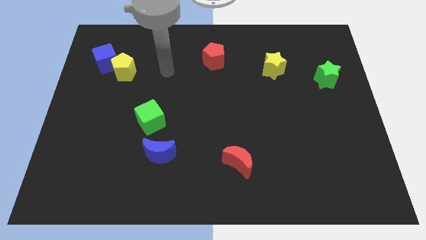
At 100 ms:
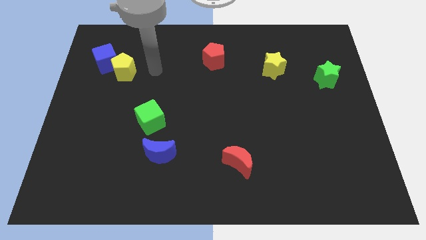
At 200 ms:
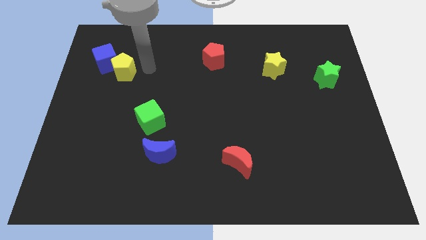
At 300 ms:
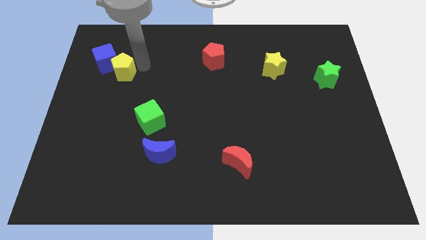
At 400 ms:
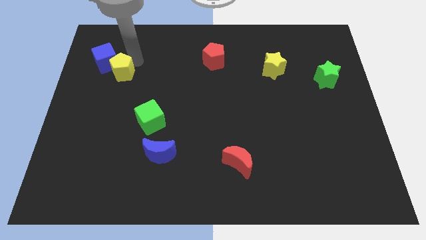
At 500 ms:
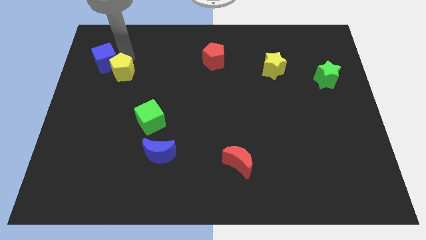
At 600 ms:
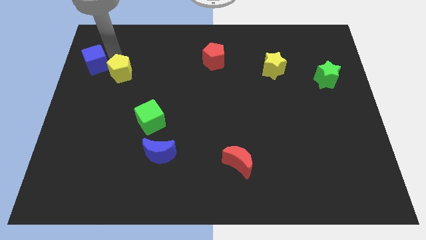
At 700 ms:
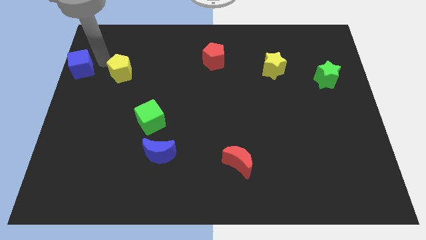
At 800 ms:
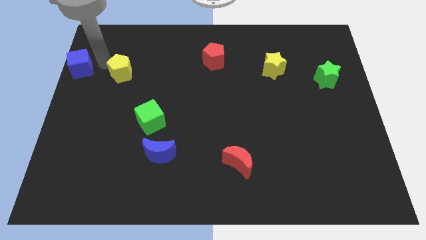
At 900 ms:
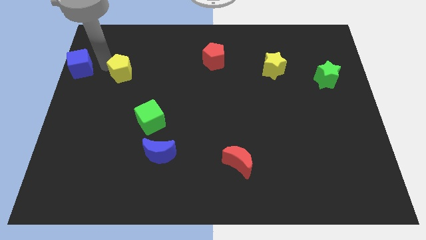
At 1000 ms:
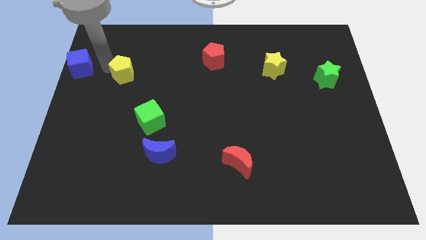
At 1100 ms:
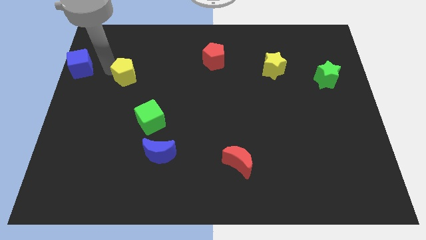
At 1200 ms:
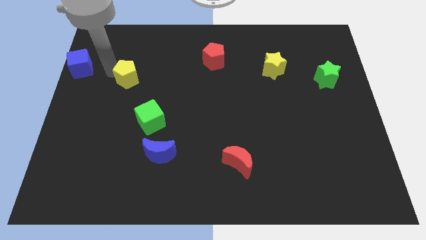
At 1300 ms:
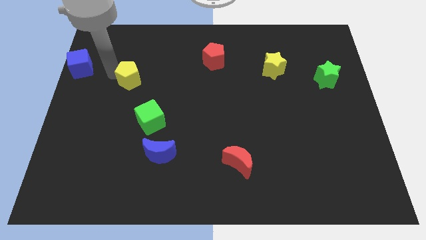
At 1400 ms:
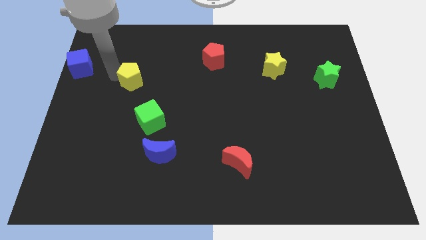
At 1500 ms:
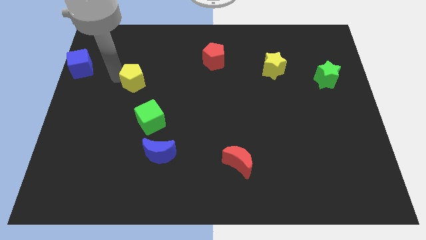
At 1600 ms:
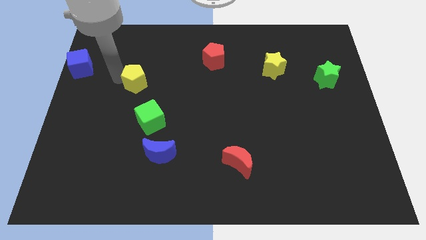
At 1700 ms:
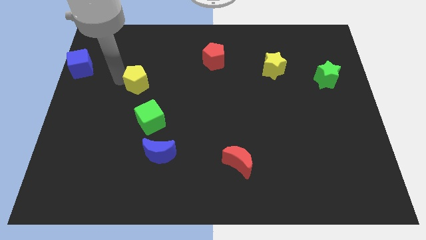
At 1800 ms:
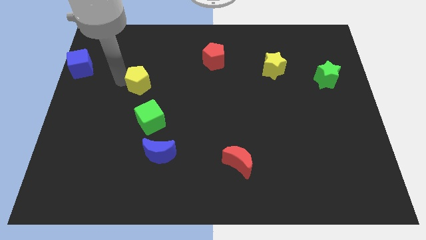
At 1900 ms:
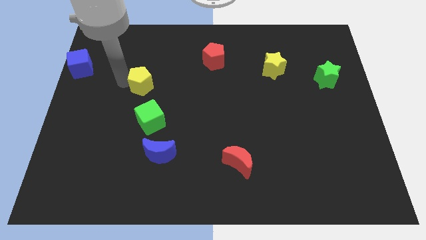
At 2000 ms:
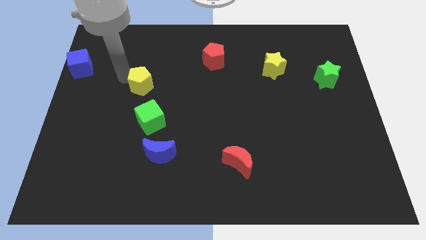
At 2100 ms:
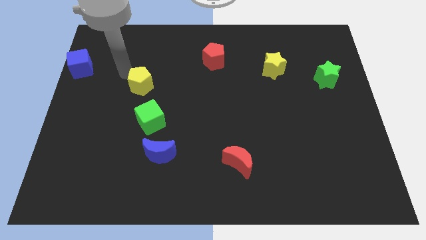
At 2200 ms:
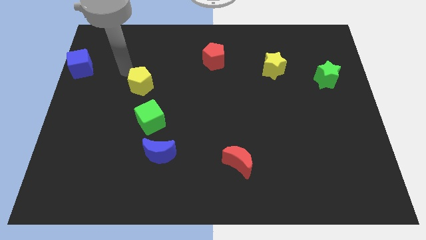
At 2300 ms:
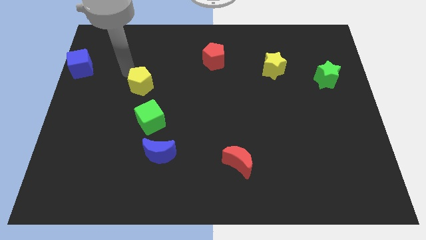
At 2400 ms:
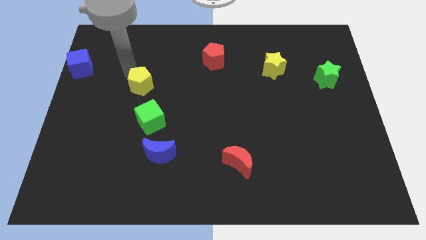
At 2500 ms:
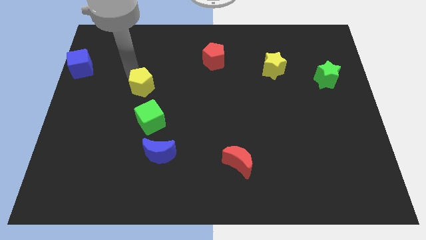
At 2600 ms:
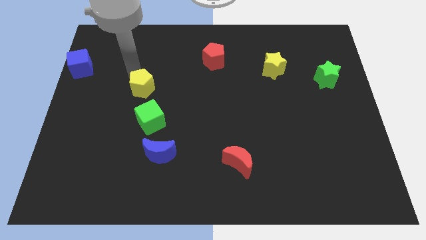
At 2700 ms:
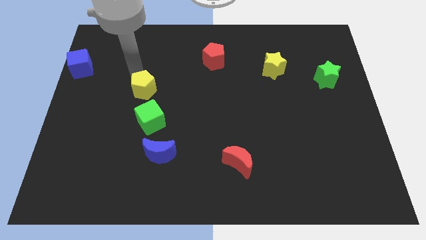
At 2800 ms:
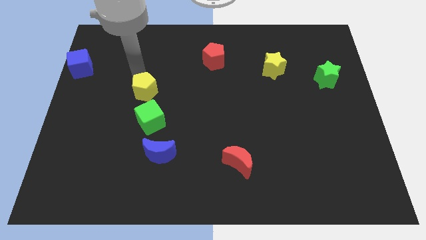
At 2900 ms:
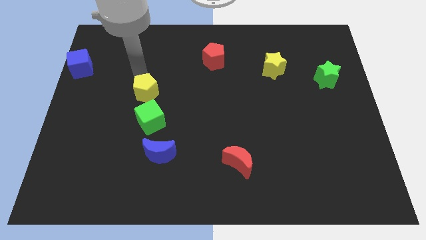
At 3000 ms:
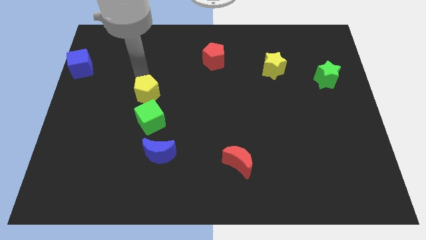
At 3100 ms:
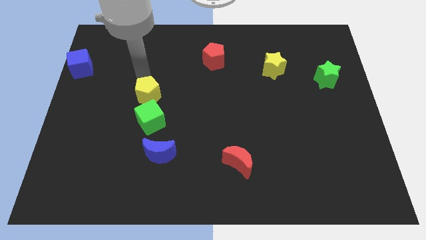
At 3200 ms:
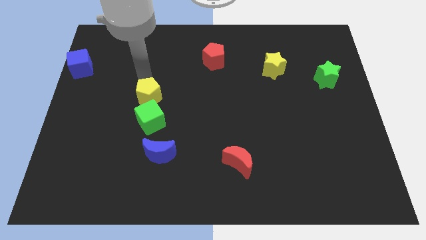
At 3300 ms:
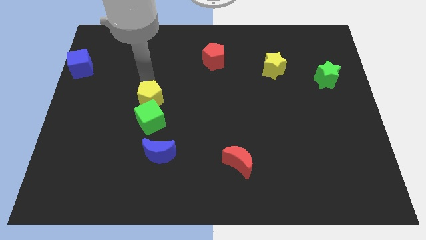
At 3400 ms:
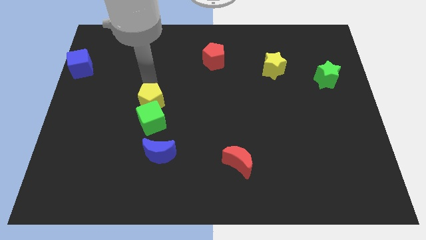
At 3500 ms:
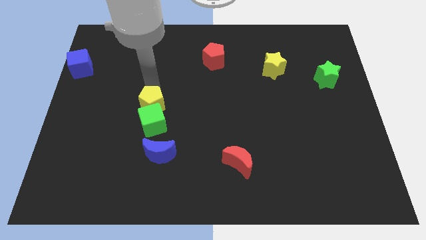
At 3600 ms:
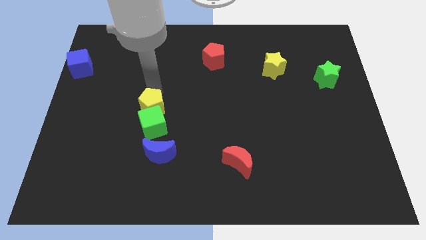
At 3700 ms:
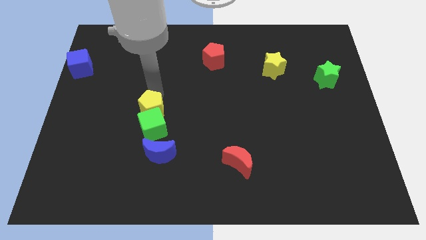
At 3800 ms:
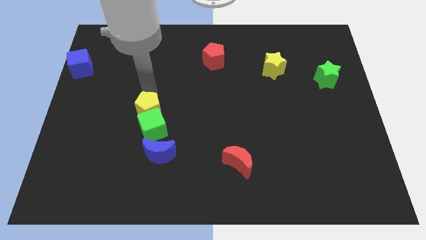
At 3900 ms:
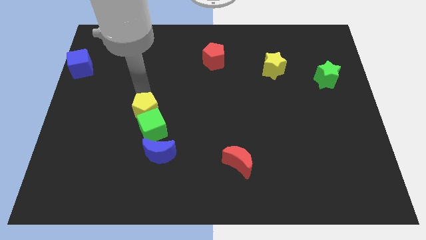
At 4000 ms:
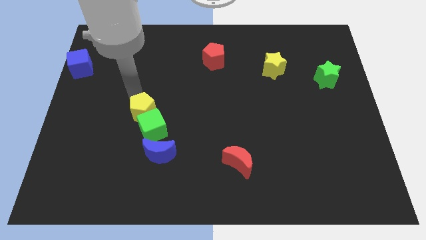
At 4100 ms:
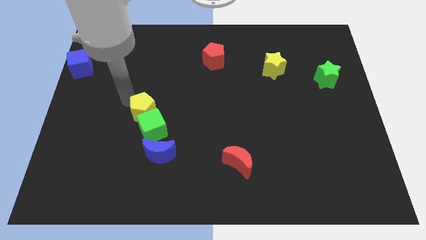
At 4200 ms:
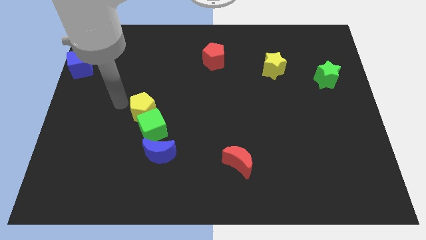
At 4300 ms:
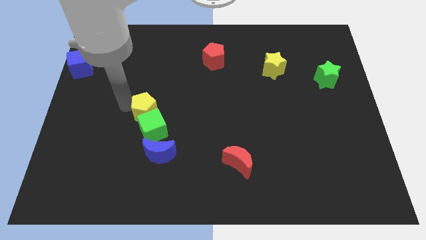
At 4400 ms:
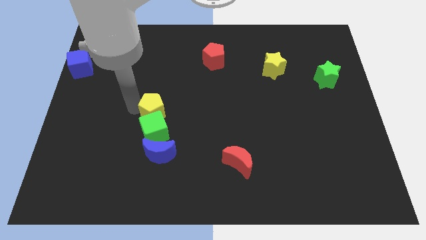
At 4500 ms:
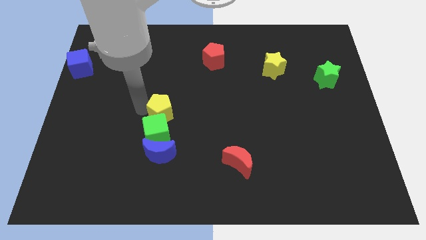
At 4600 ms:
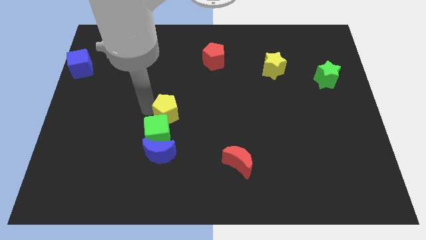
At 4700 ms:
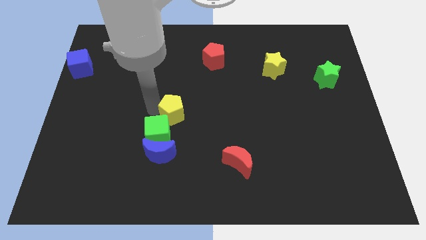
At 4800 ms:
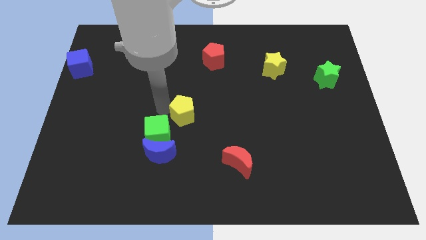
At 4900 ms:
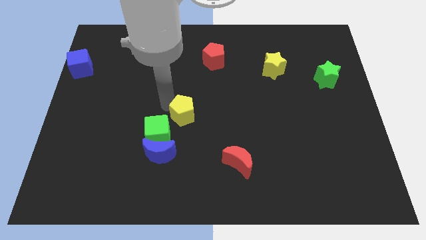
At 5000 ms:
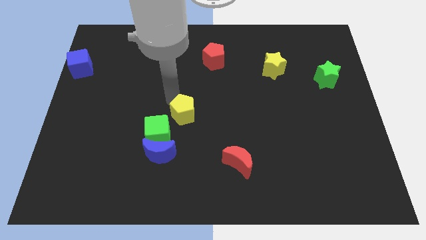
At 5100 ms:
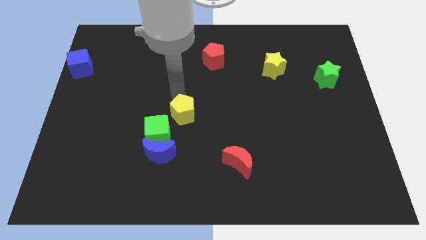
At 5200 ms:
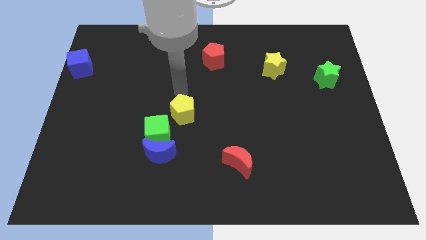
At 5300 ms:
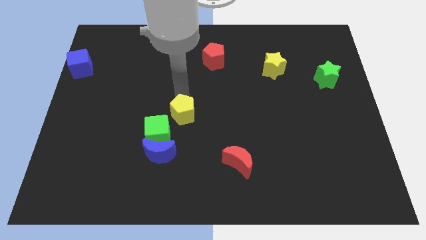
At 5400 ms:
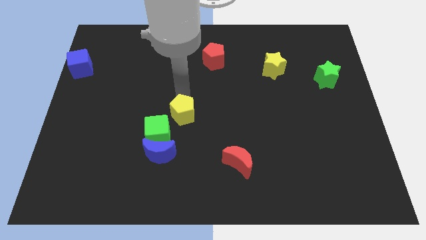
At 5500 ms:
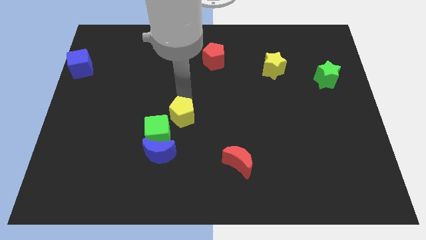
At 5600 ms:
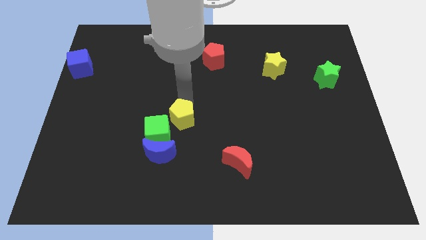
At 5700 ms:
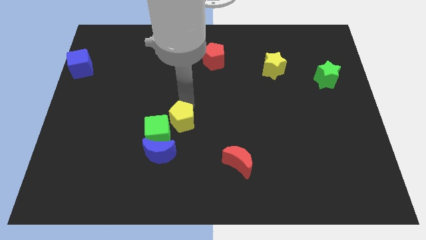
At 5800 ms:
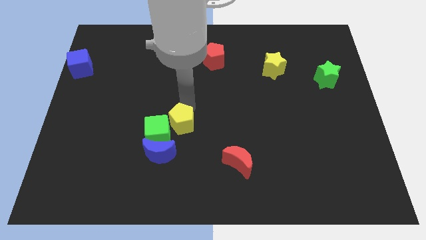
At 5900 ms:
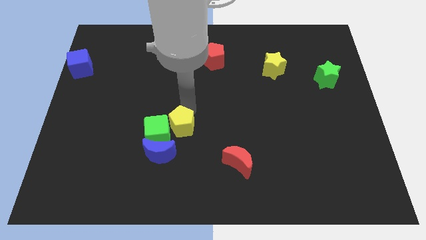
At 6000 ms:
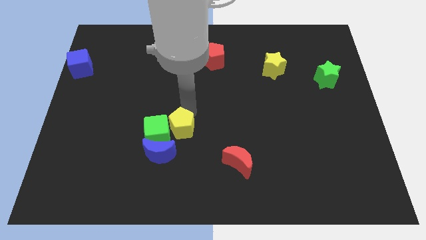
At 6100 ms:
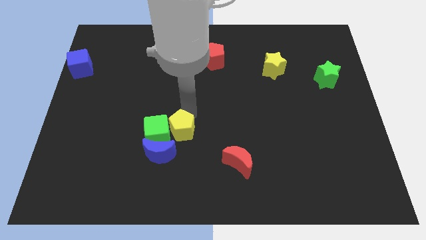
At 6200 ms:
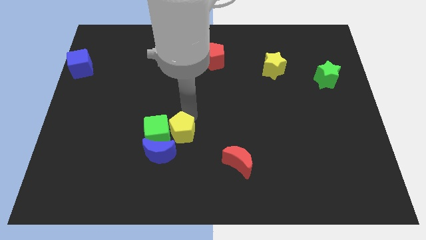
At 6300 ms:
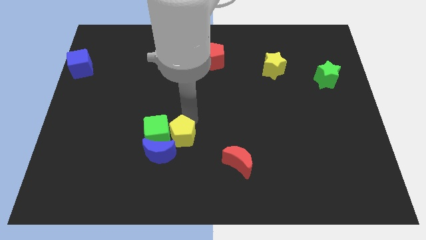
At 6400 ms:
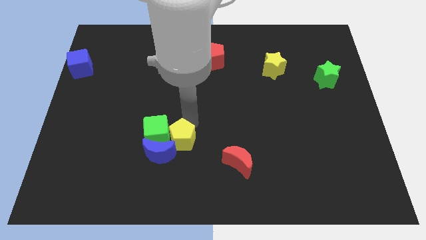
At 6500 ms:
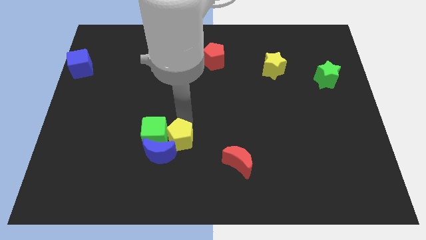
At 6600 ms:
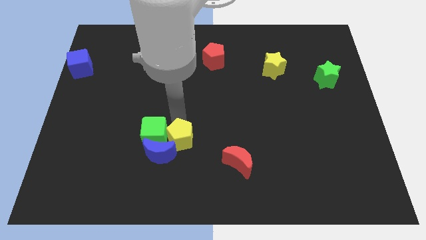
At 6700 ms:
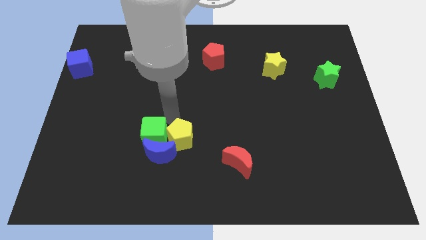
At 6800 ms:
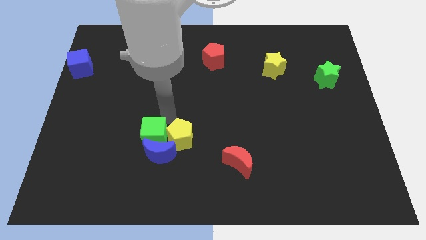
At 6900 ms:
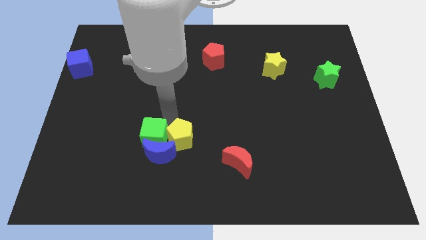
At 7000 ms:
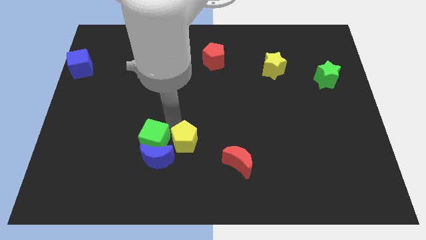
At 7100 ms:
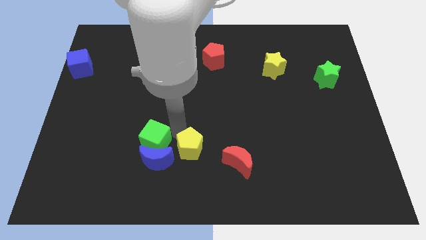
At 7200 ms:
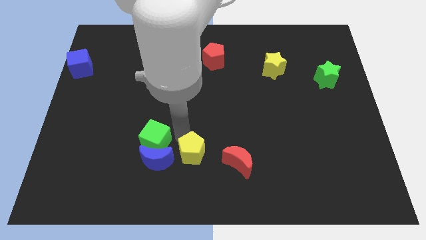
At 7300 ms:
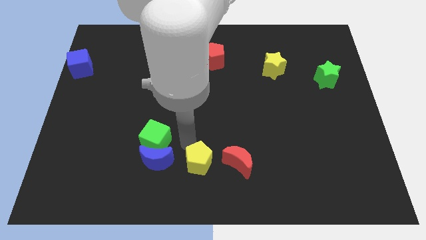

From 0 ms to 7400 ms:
move the yellow pentagon to the bottom side
